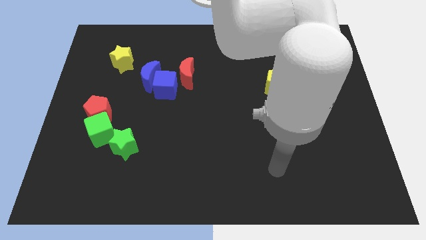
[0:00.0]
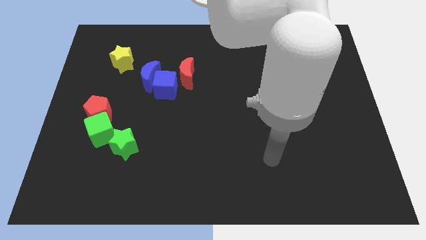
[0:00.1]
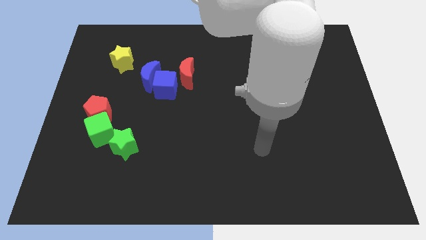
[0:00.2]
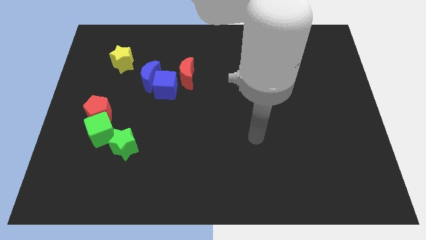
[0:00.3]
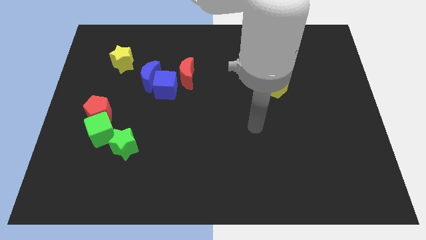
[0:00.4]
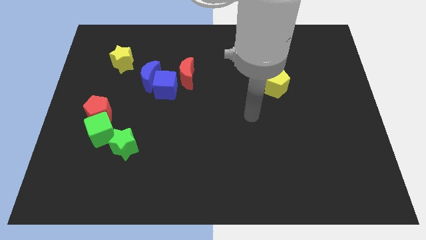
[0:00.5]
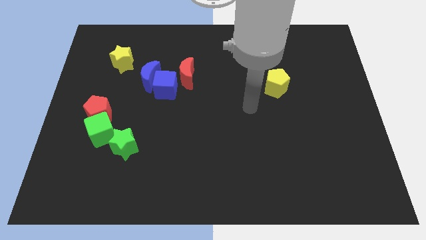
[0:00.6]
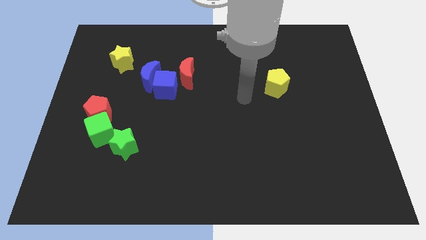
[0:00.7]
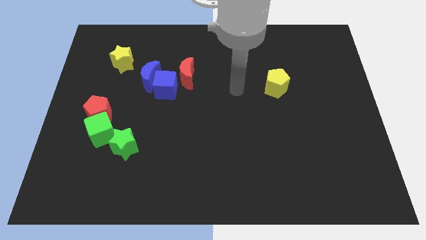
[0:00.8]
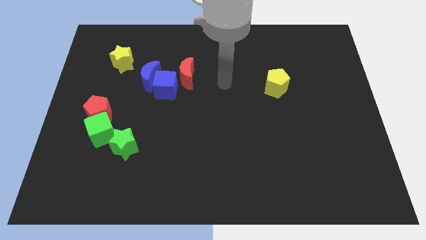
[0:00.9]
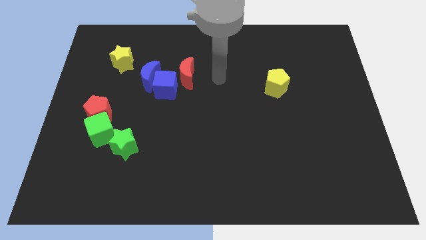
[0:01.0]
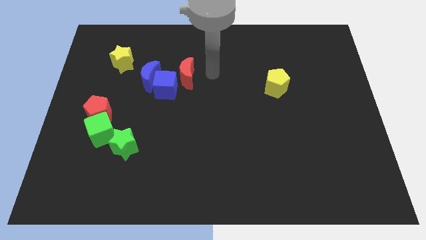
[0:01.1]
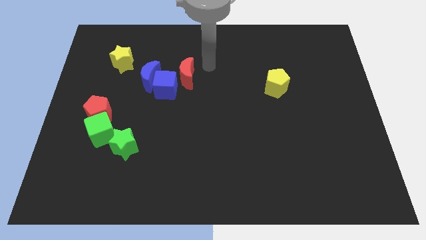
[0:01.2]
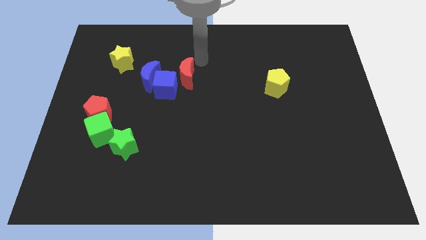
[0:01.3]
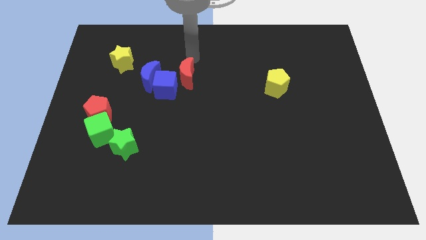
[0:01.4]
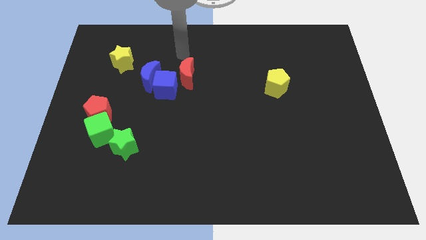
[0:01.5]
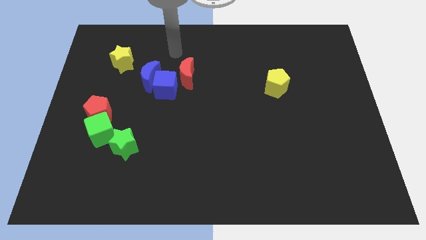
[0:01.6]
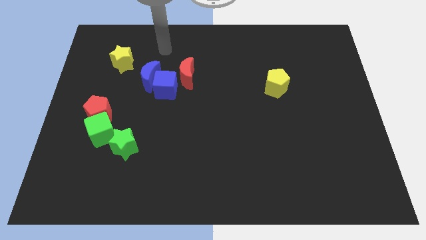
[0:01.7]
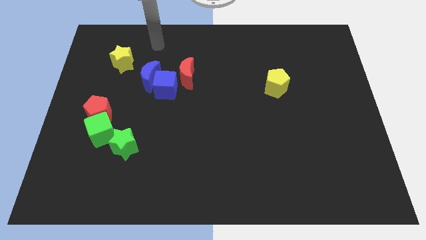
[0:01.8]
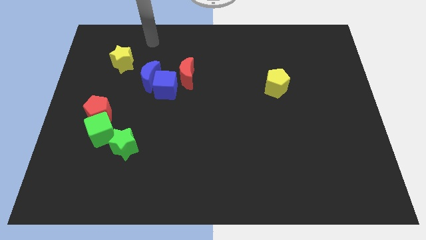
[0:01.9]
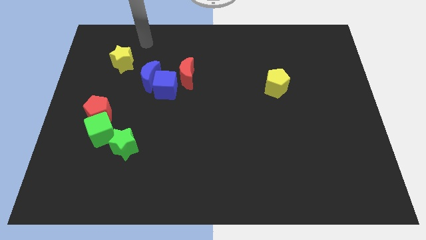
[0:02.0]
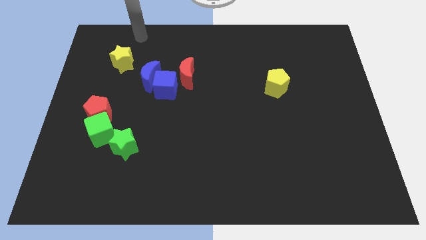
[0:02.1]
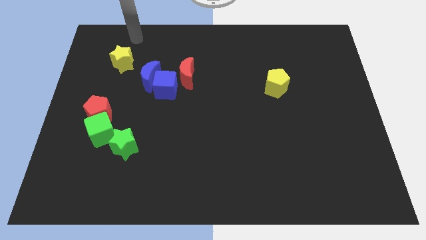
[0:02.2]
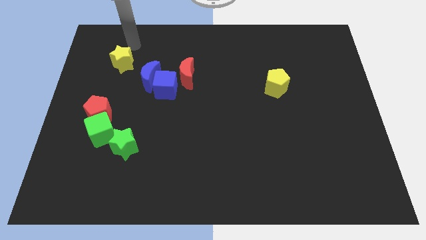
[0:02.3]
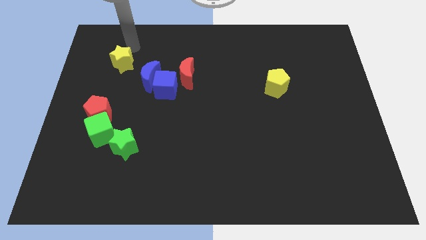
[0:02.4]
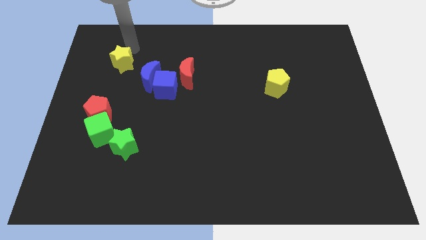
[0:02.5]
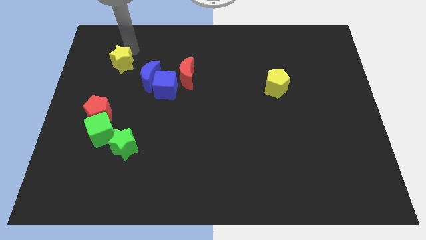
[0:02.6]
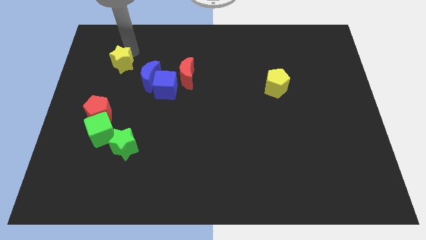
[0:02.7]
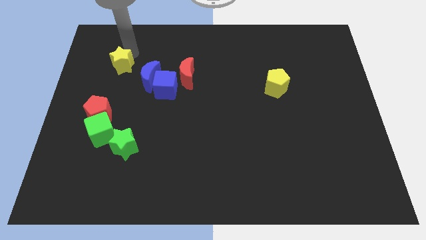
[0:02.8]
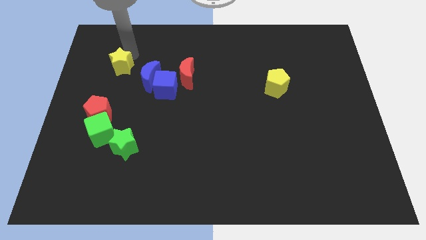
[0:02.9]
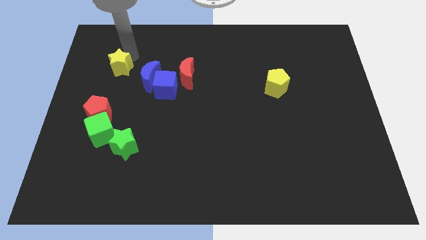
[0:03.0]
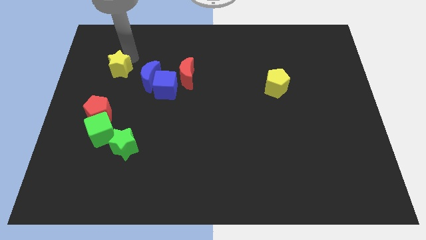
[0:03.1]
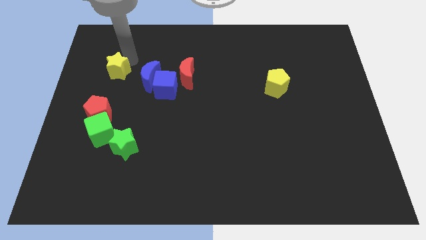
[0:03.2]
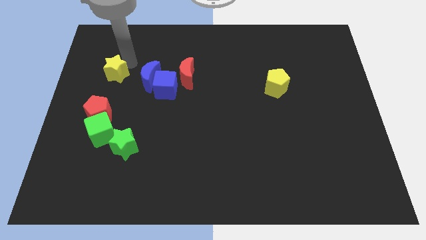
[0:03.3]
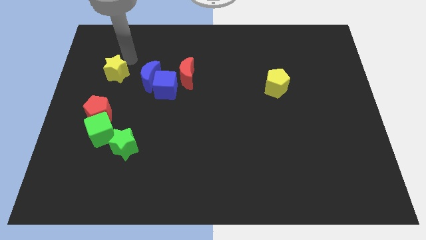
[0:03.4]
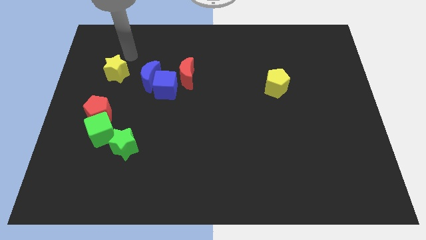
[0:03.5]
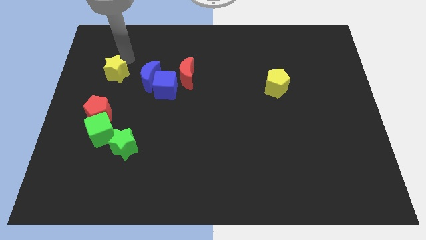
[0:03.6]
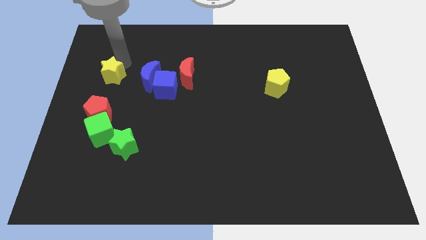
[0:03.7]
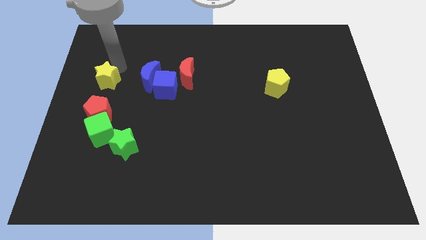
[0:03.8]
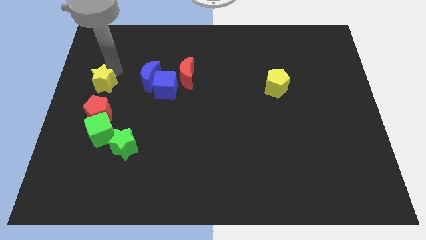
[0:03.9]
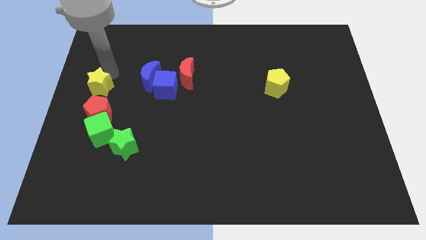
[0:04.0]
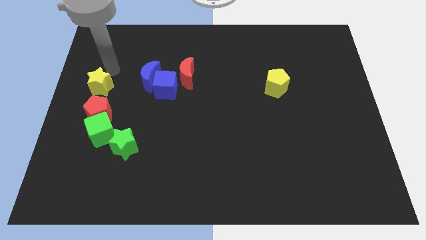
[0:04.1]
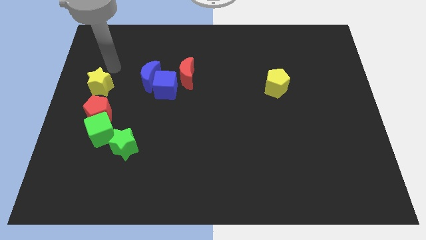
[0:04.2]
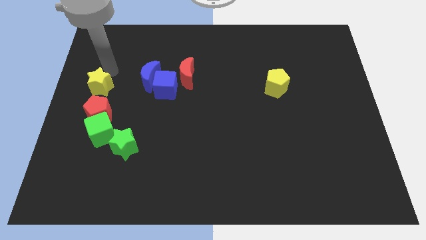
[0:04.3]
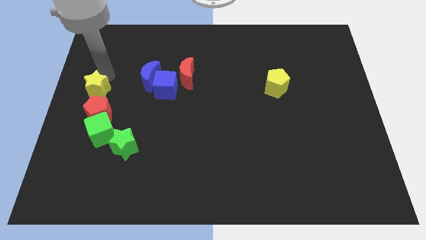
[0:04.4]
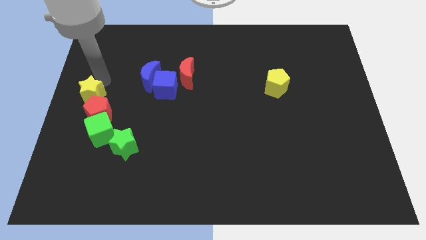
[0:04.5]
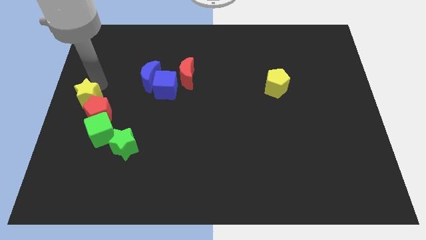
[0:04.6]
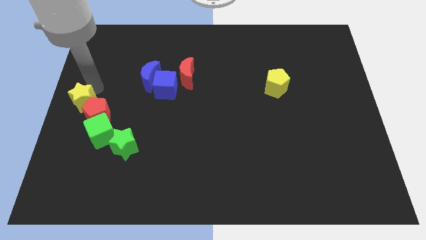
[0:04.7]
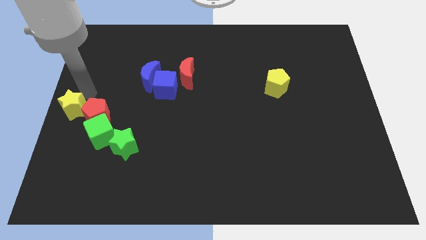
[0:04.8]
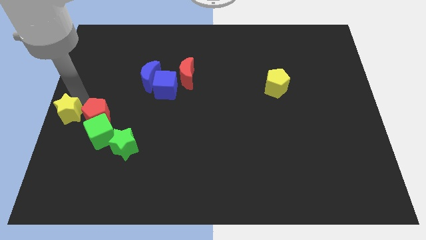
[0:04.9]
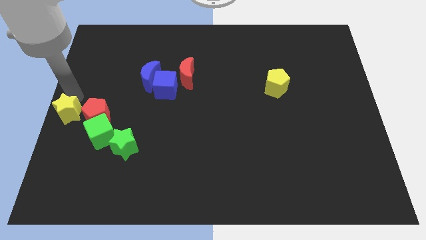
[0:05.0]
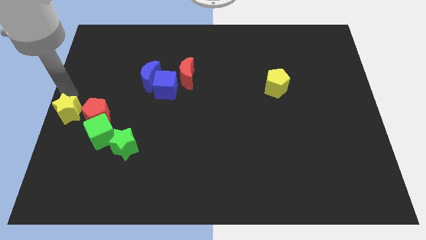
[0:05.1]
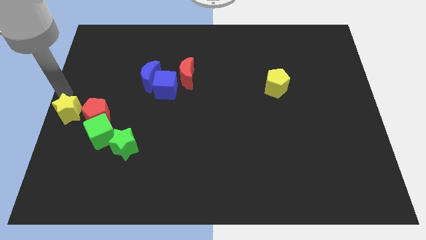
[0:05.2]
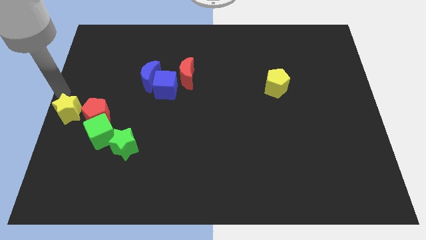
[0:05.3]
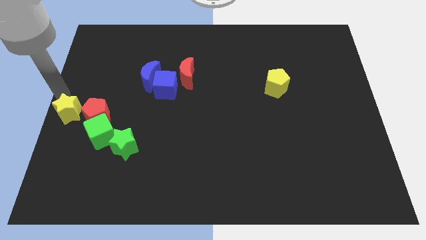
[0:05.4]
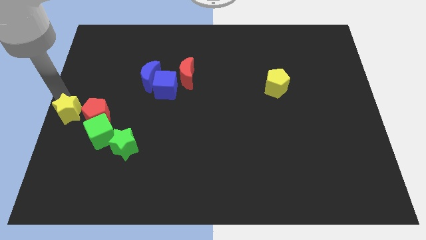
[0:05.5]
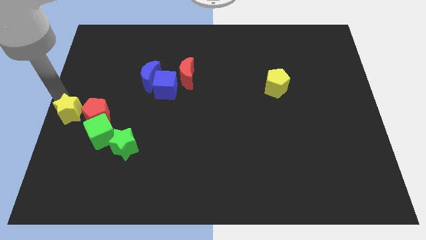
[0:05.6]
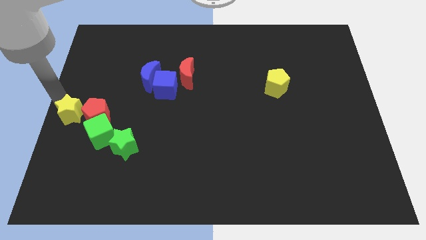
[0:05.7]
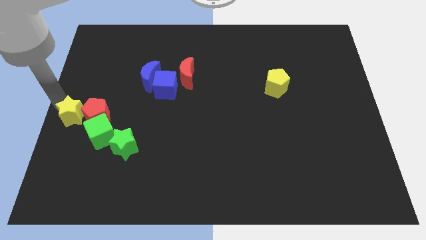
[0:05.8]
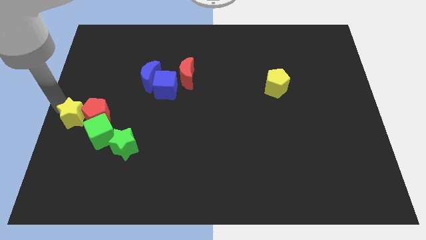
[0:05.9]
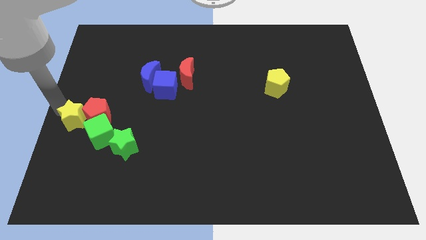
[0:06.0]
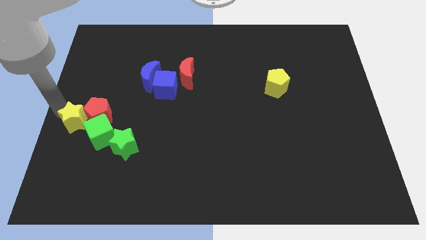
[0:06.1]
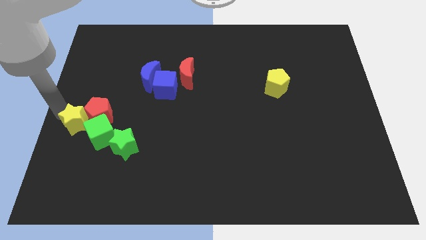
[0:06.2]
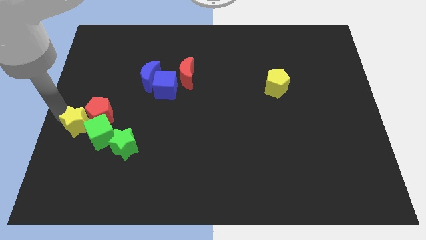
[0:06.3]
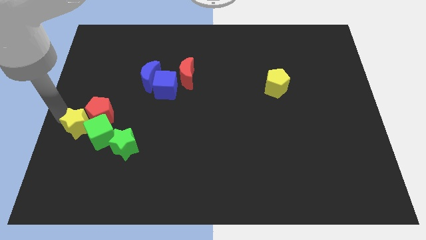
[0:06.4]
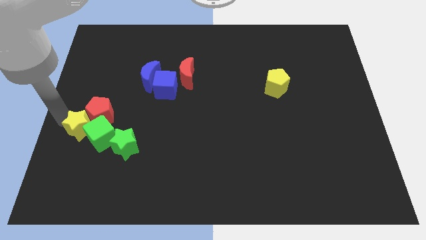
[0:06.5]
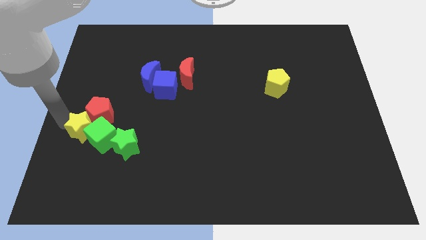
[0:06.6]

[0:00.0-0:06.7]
push the yellow star downwards

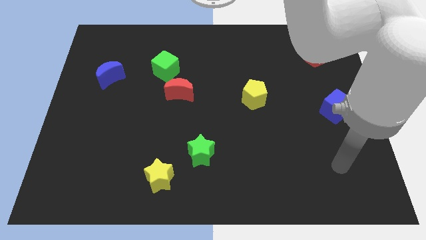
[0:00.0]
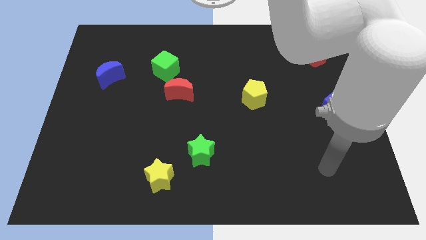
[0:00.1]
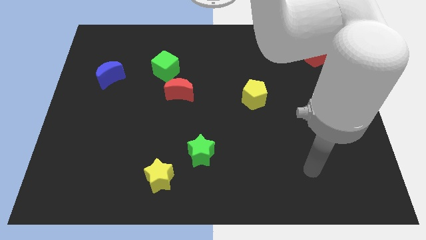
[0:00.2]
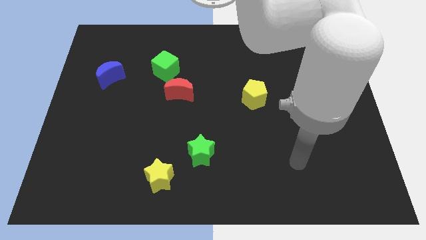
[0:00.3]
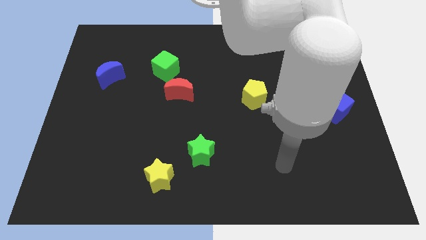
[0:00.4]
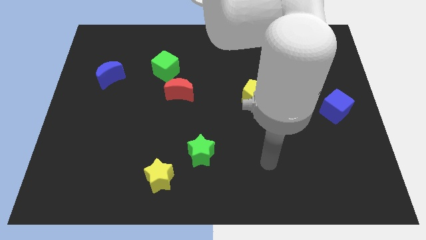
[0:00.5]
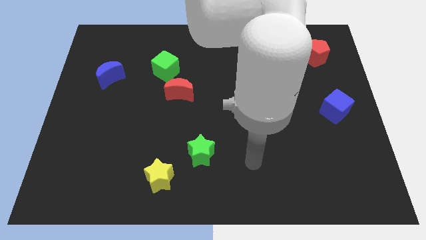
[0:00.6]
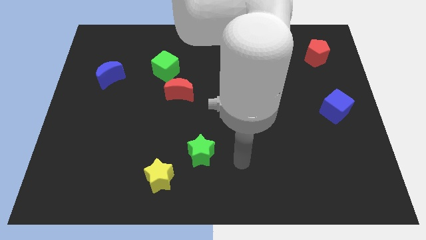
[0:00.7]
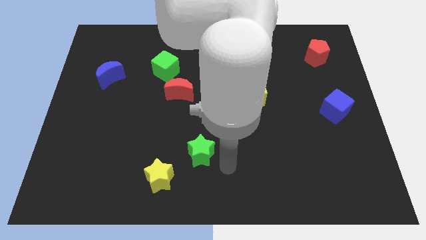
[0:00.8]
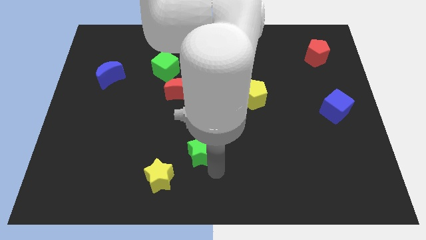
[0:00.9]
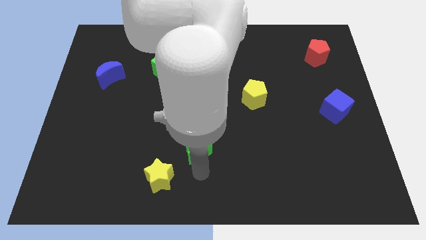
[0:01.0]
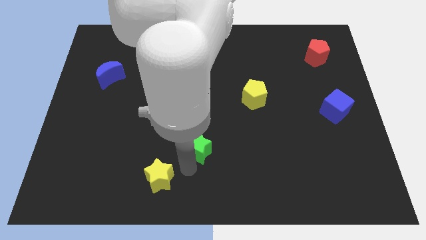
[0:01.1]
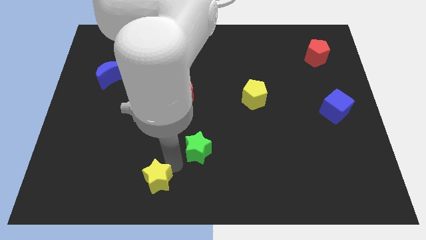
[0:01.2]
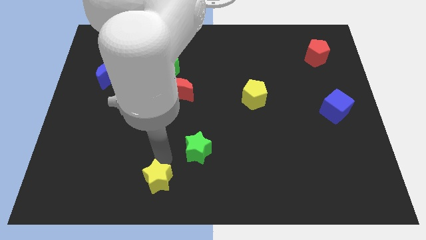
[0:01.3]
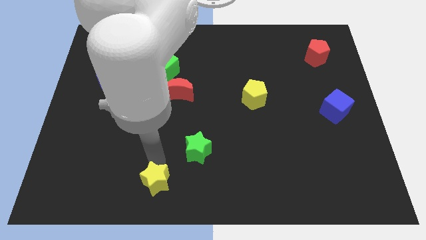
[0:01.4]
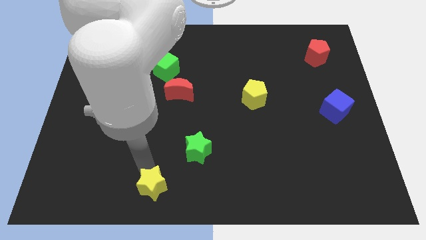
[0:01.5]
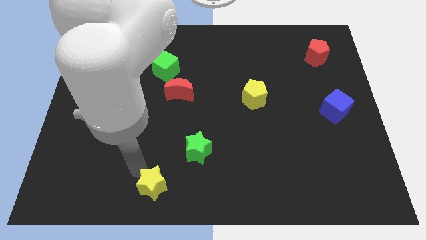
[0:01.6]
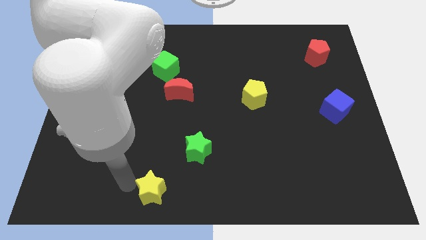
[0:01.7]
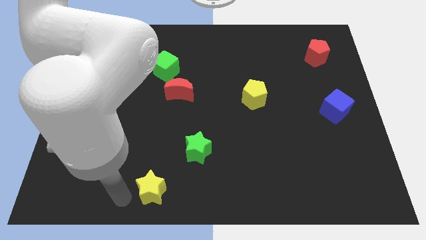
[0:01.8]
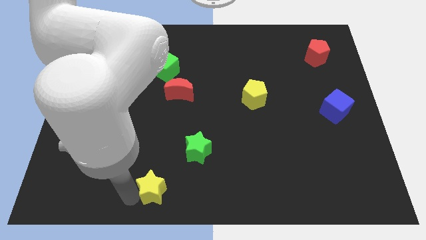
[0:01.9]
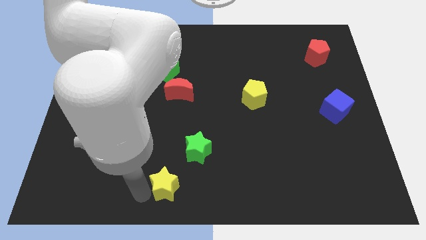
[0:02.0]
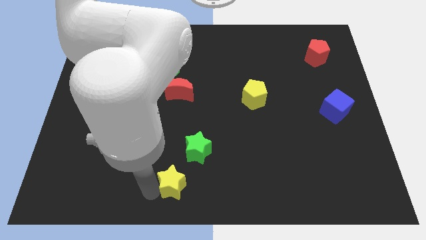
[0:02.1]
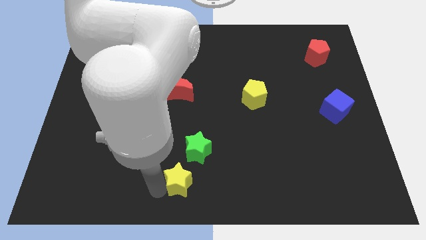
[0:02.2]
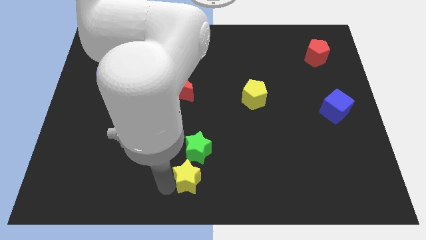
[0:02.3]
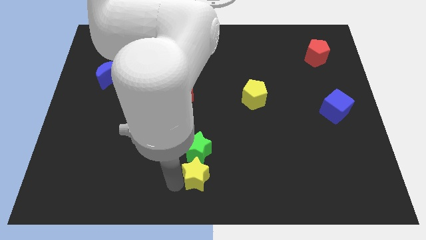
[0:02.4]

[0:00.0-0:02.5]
slide the yellow star right slightly
